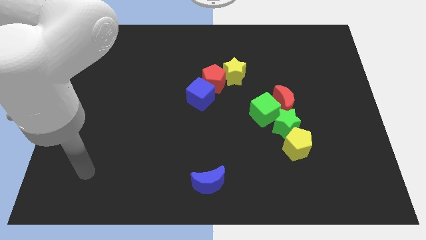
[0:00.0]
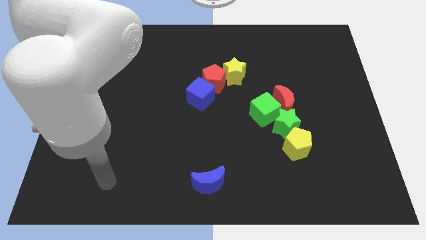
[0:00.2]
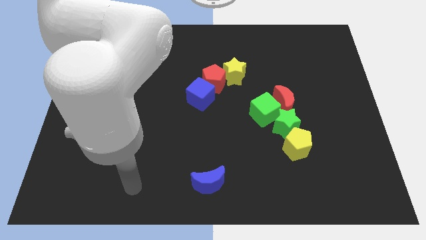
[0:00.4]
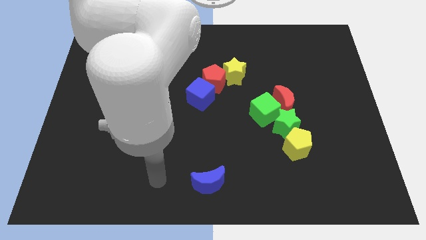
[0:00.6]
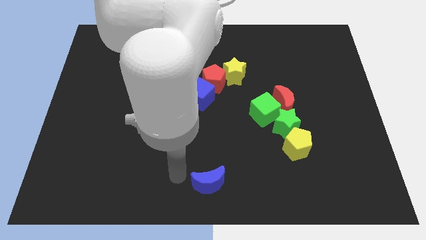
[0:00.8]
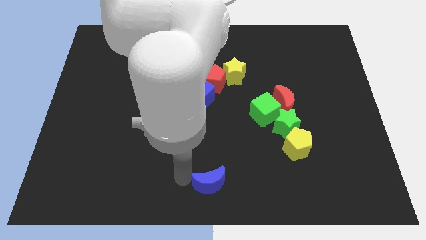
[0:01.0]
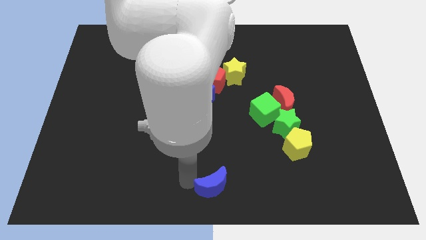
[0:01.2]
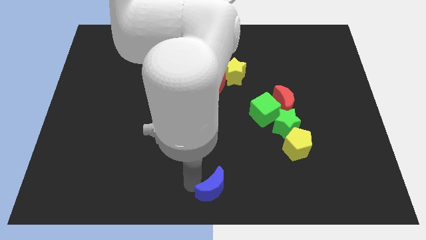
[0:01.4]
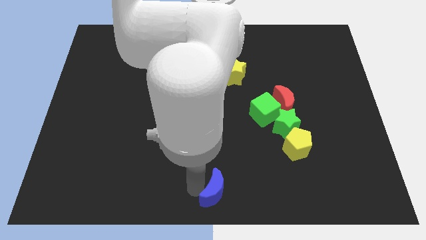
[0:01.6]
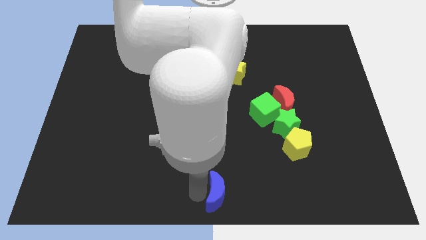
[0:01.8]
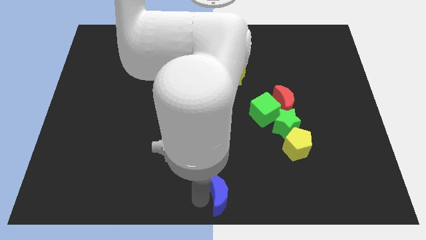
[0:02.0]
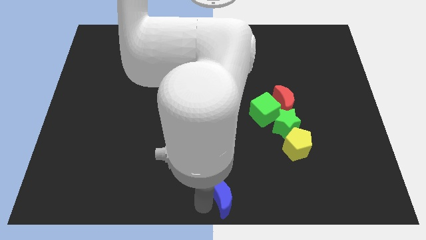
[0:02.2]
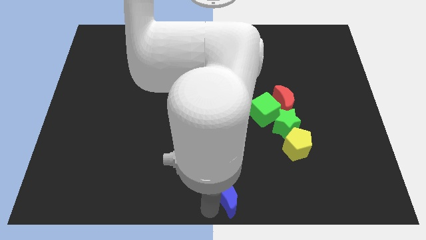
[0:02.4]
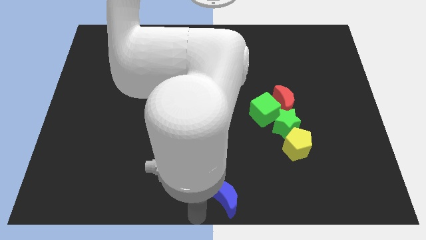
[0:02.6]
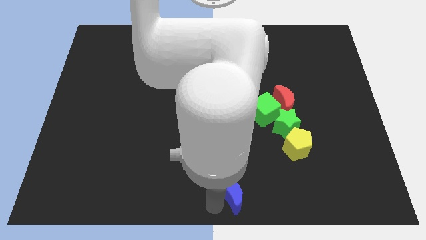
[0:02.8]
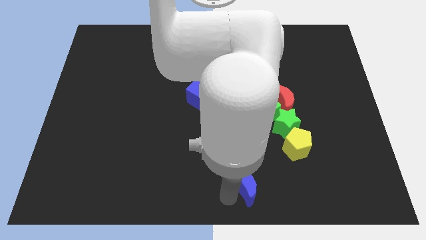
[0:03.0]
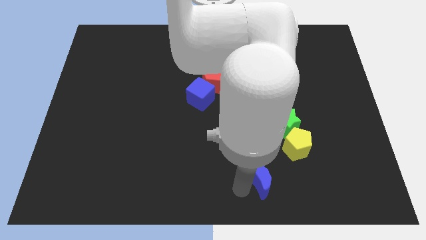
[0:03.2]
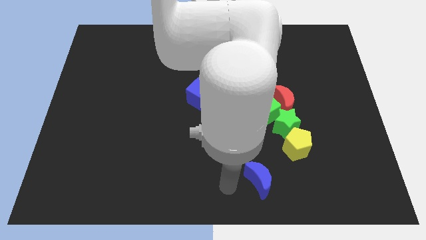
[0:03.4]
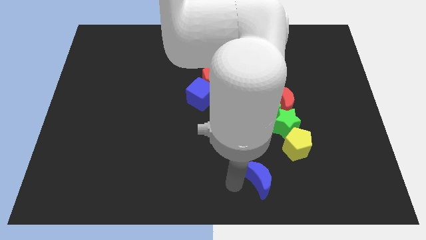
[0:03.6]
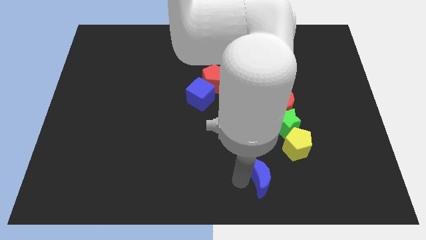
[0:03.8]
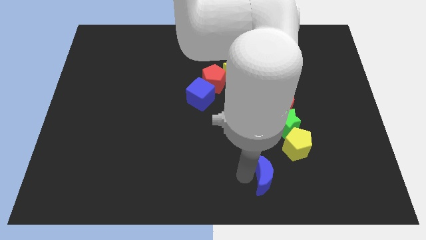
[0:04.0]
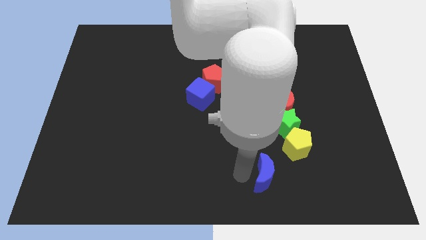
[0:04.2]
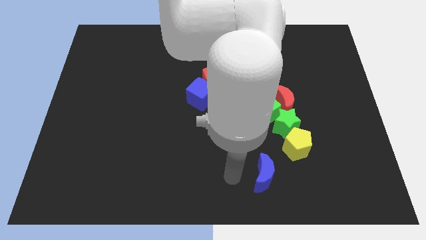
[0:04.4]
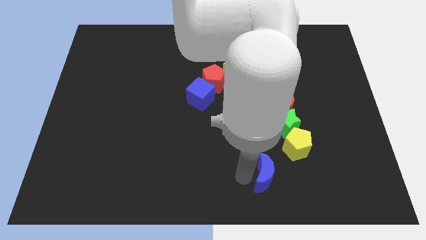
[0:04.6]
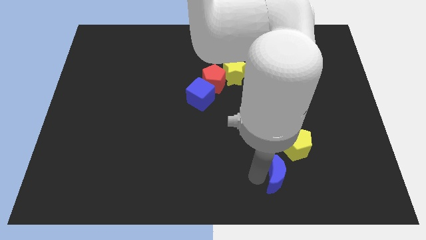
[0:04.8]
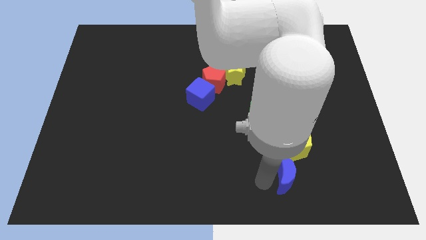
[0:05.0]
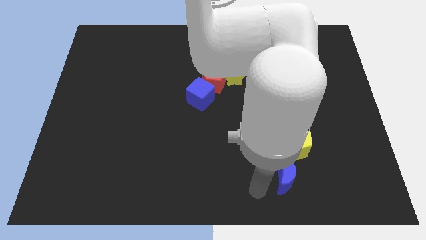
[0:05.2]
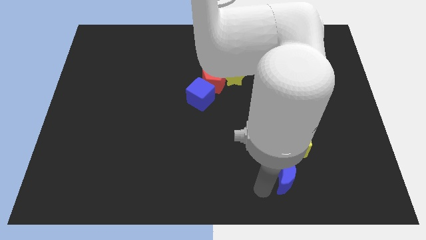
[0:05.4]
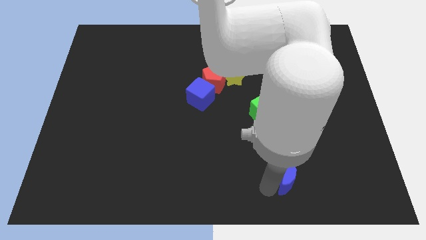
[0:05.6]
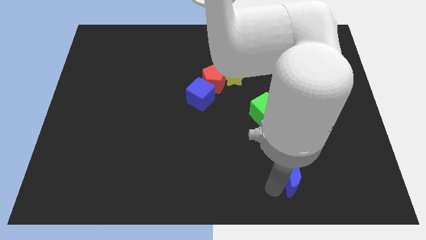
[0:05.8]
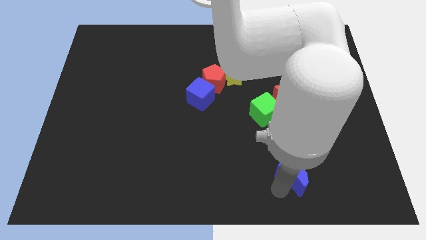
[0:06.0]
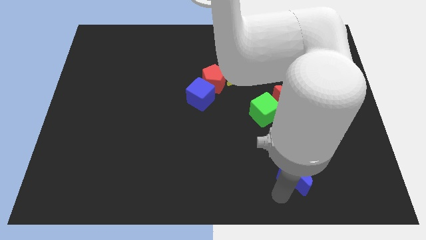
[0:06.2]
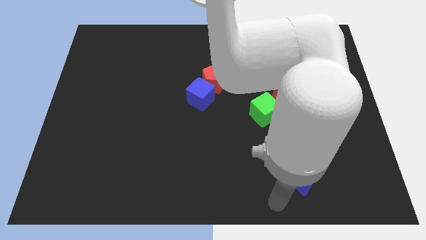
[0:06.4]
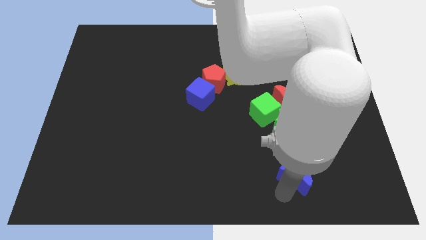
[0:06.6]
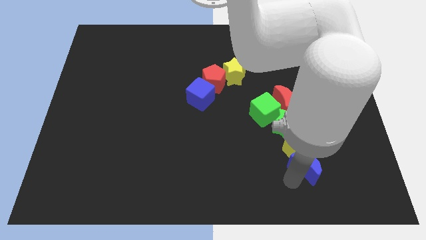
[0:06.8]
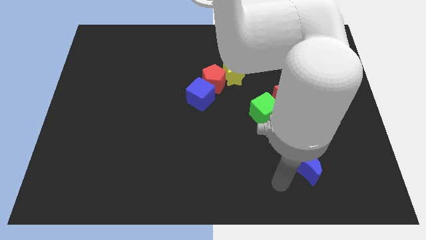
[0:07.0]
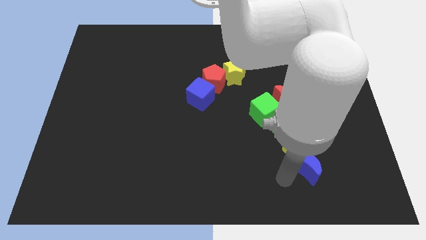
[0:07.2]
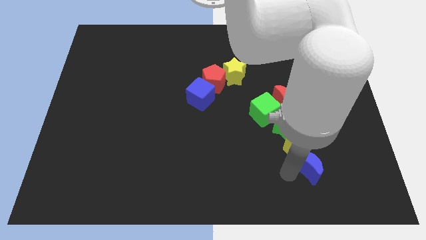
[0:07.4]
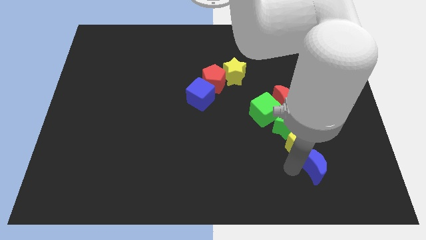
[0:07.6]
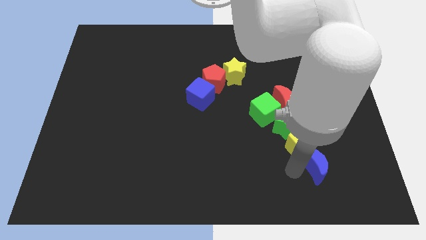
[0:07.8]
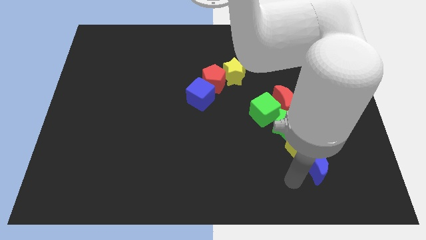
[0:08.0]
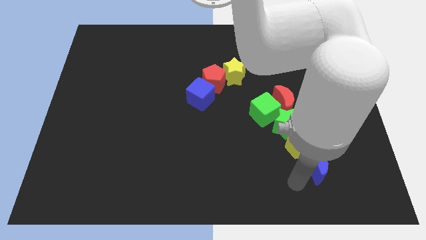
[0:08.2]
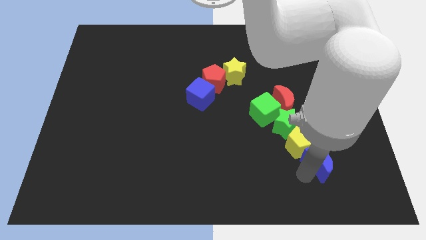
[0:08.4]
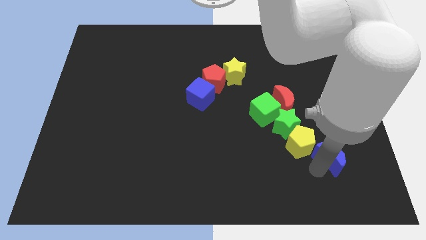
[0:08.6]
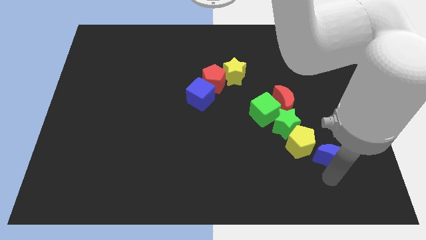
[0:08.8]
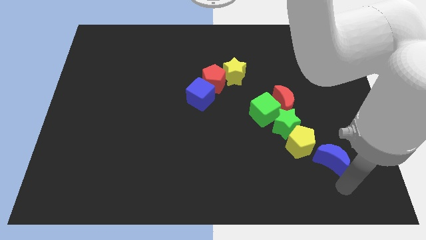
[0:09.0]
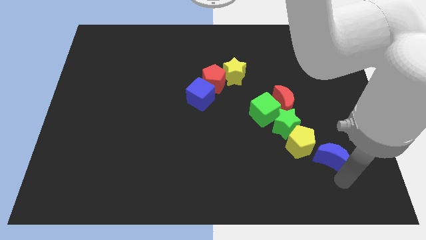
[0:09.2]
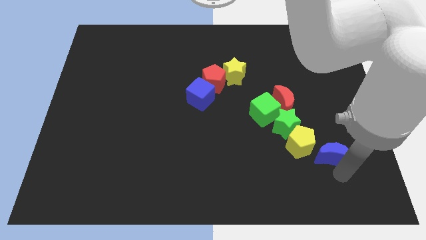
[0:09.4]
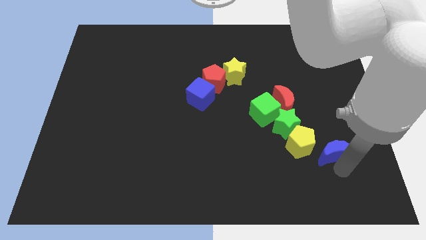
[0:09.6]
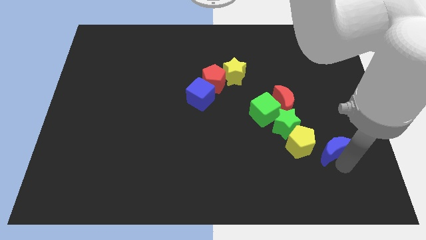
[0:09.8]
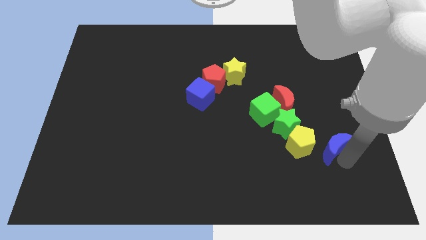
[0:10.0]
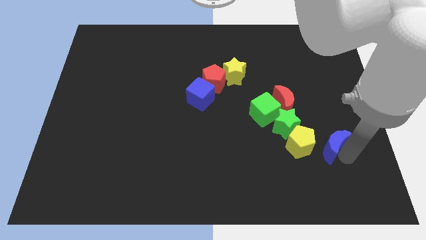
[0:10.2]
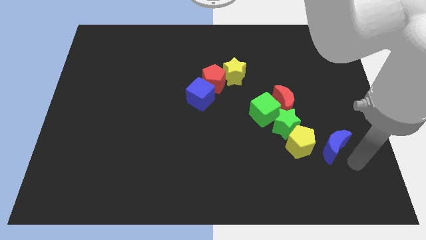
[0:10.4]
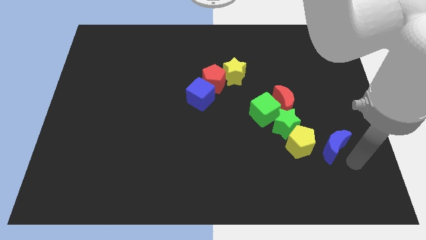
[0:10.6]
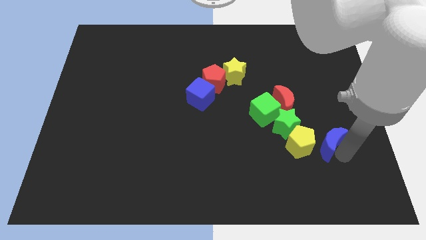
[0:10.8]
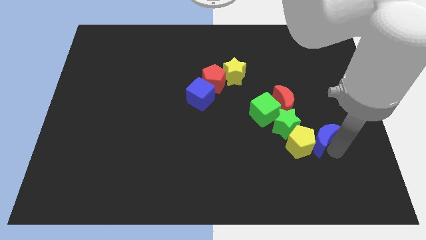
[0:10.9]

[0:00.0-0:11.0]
move the blue moon to the bottom right of the red moon
